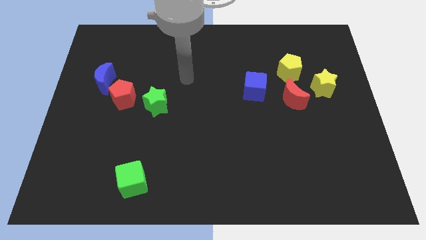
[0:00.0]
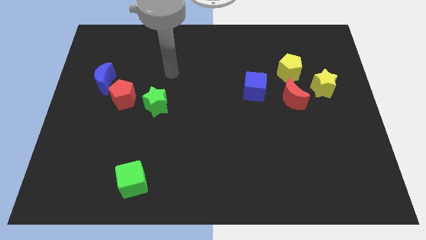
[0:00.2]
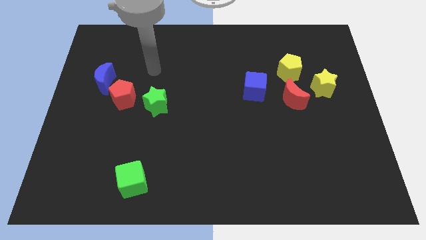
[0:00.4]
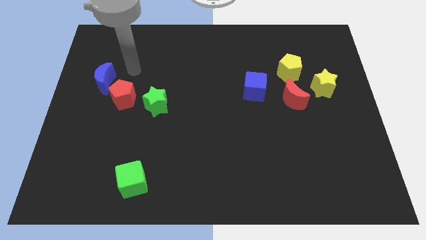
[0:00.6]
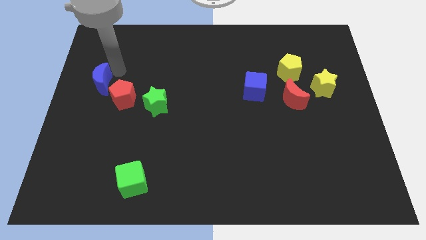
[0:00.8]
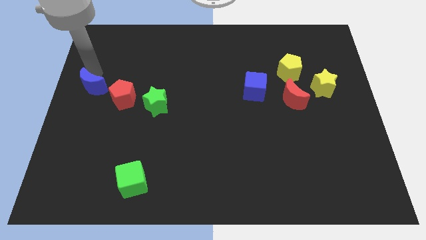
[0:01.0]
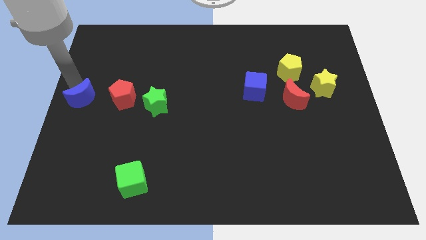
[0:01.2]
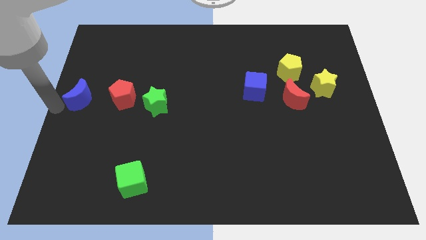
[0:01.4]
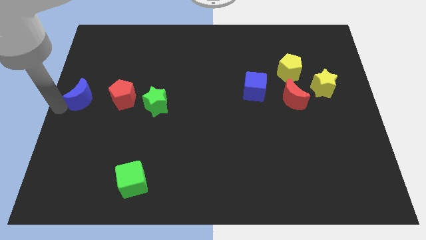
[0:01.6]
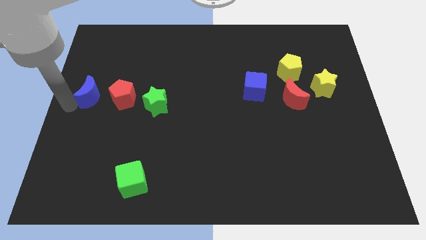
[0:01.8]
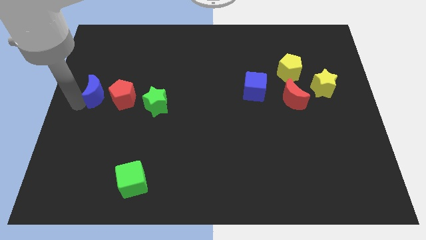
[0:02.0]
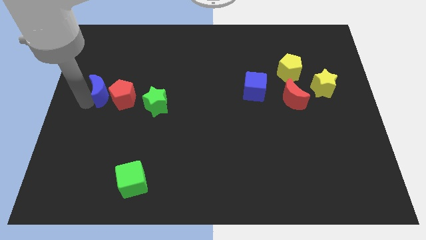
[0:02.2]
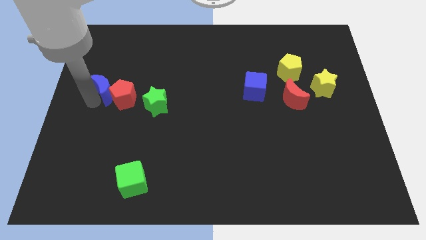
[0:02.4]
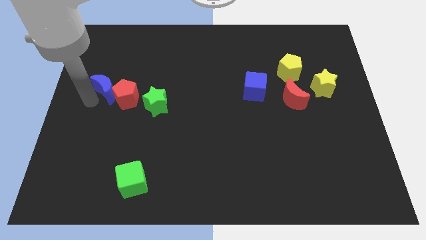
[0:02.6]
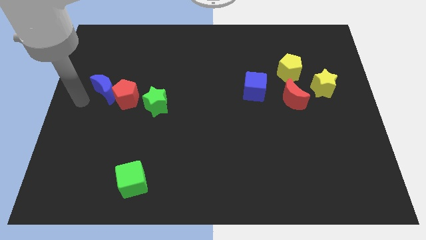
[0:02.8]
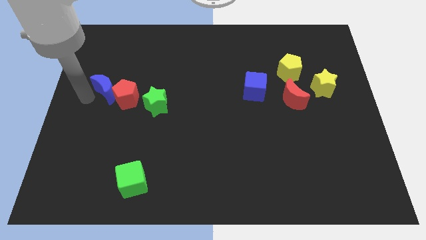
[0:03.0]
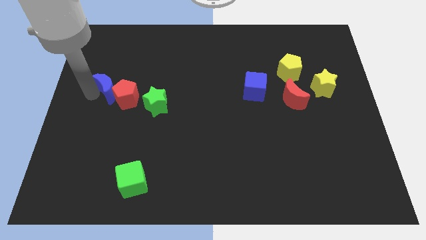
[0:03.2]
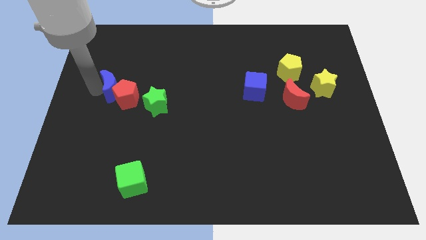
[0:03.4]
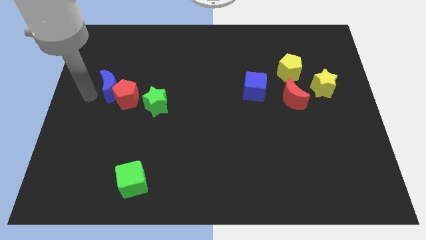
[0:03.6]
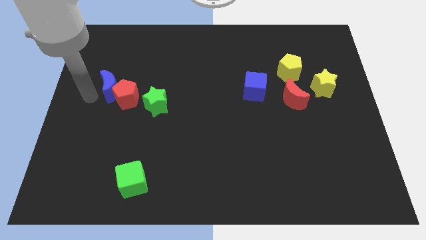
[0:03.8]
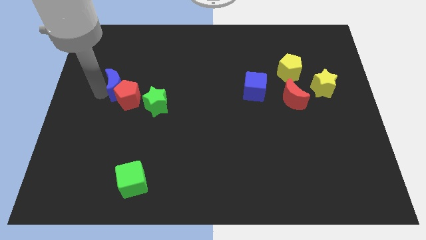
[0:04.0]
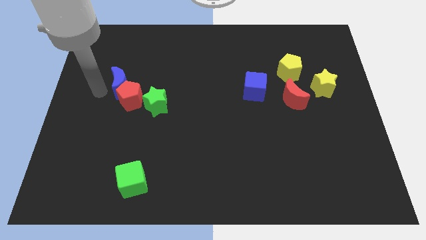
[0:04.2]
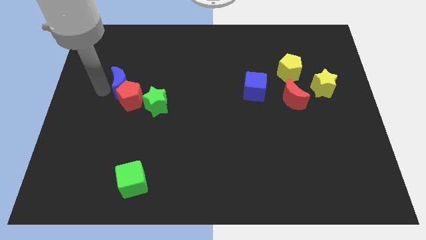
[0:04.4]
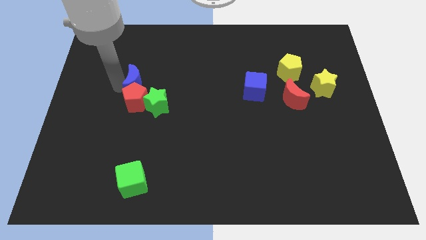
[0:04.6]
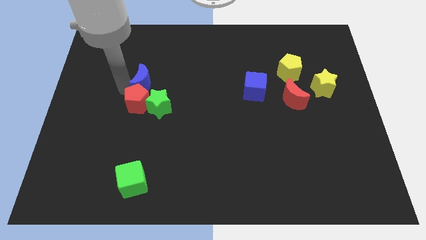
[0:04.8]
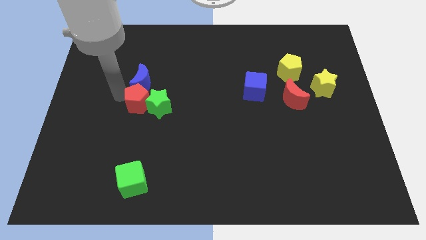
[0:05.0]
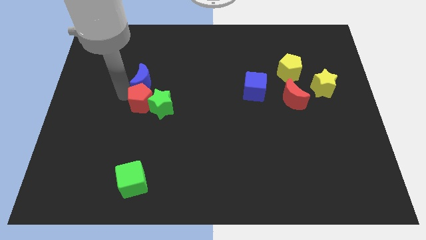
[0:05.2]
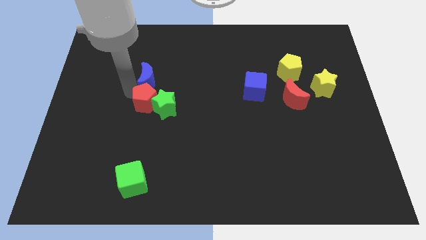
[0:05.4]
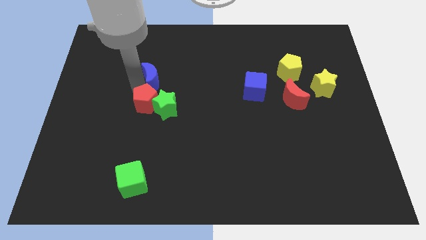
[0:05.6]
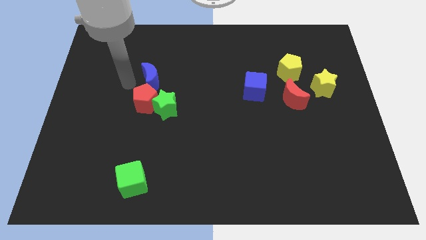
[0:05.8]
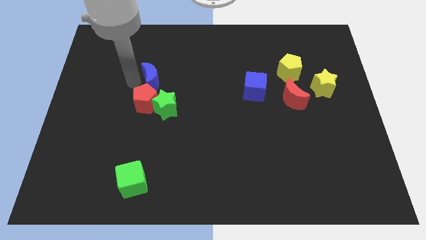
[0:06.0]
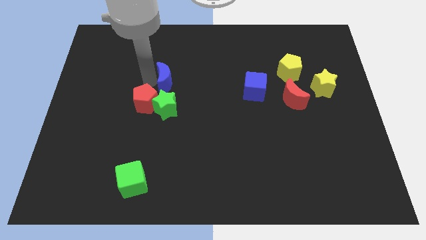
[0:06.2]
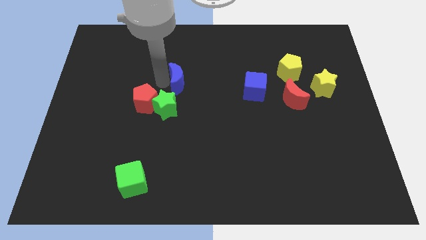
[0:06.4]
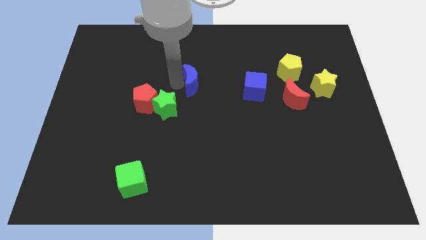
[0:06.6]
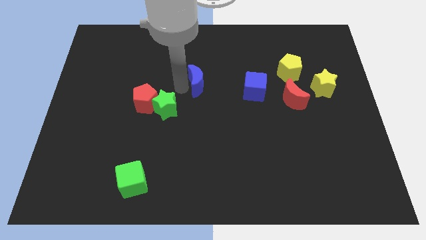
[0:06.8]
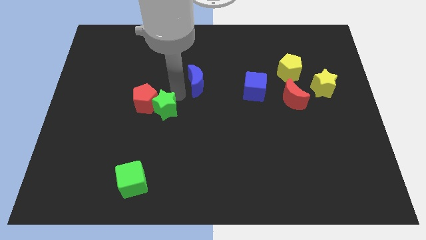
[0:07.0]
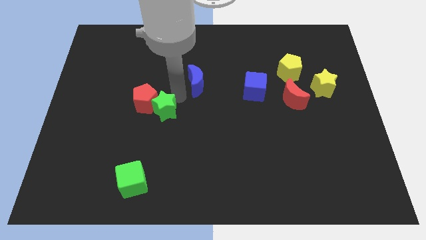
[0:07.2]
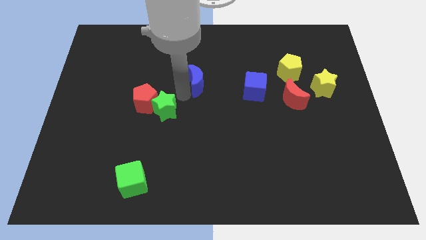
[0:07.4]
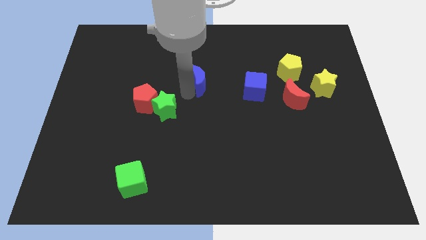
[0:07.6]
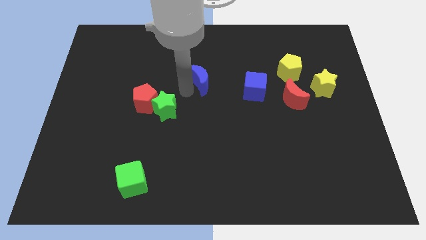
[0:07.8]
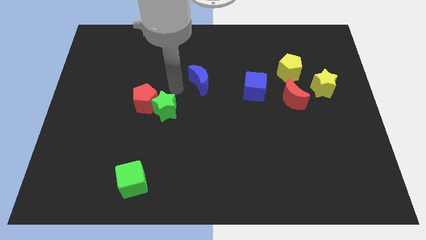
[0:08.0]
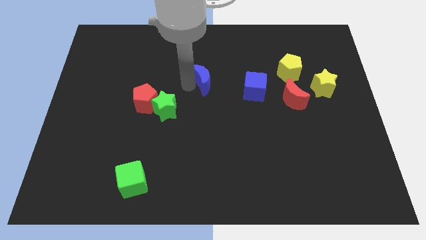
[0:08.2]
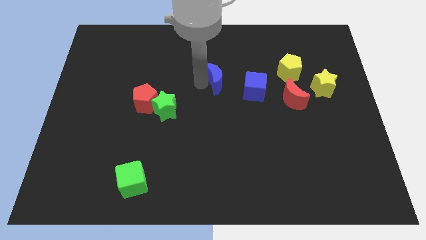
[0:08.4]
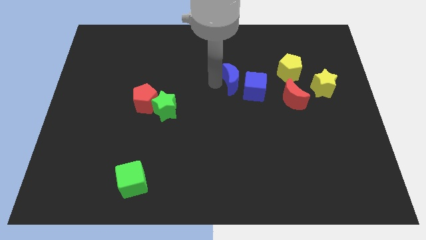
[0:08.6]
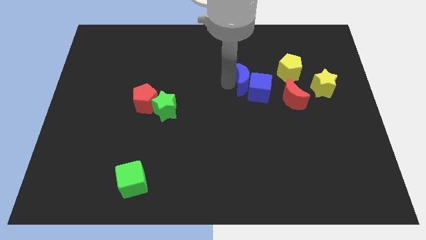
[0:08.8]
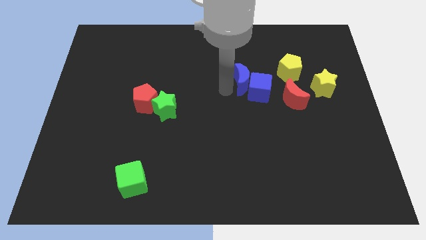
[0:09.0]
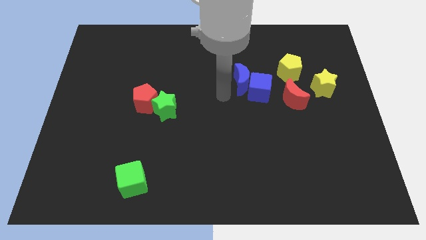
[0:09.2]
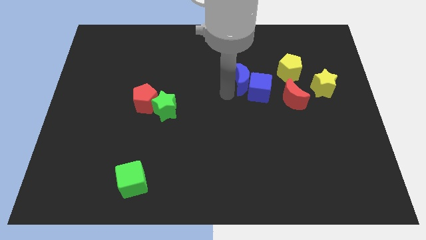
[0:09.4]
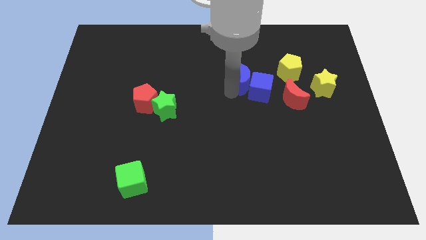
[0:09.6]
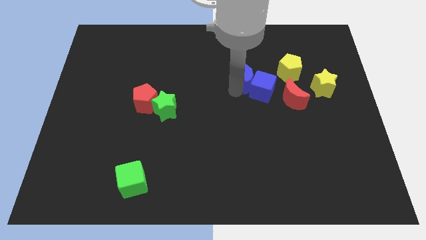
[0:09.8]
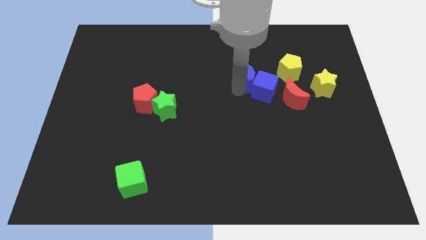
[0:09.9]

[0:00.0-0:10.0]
move the blue moon diagonally up and to the left of the red moon

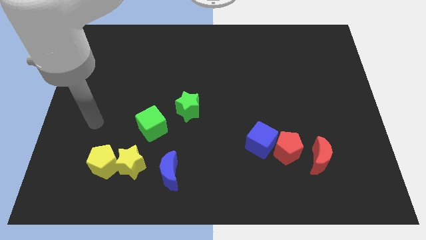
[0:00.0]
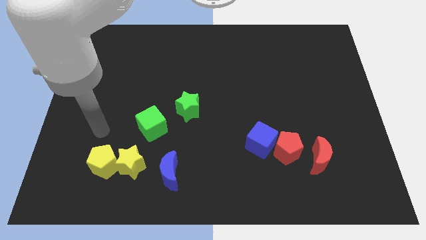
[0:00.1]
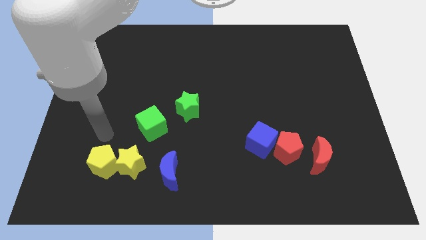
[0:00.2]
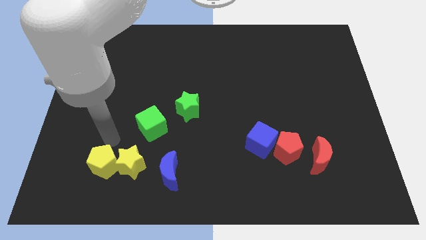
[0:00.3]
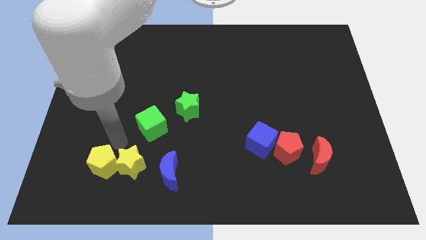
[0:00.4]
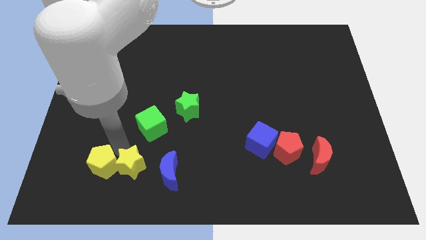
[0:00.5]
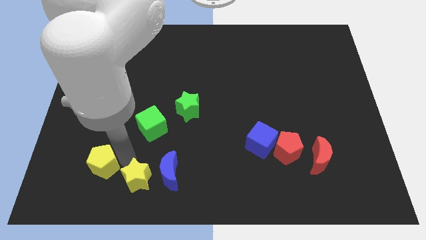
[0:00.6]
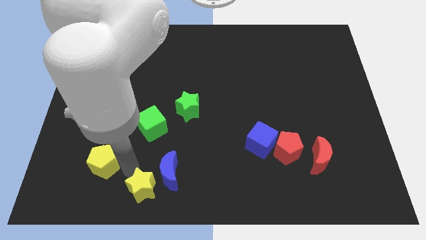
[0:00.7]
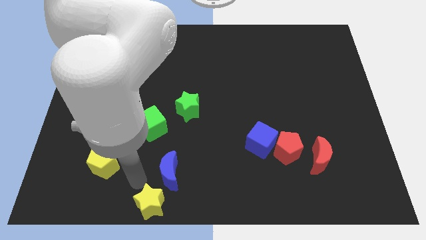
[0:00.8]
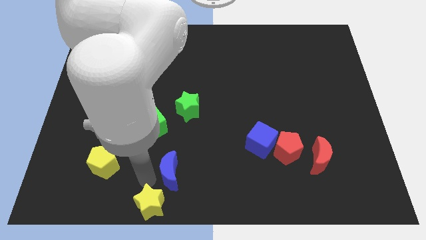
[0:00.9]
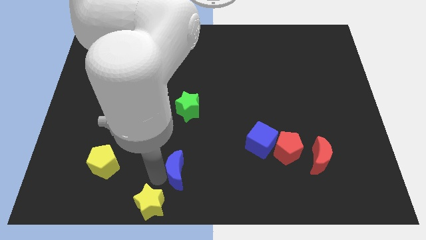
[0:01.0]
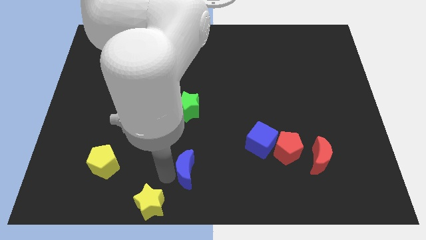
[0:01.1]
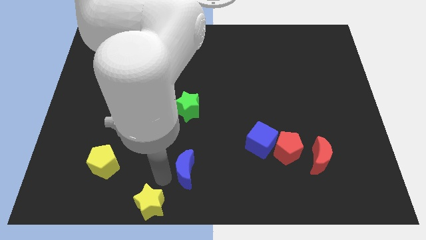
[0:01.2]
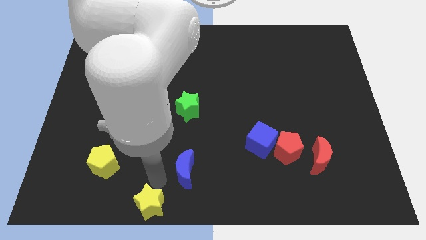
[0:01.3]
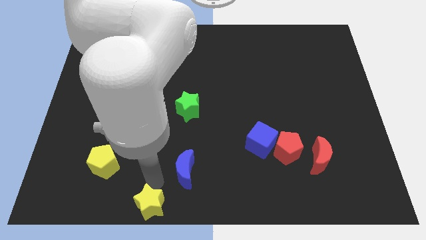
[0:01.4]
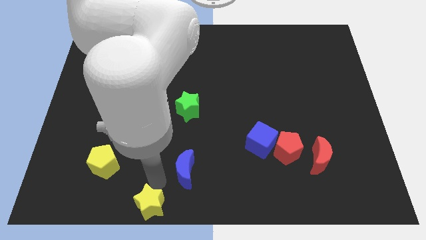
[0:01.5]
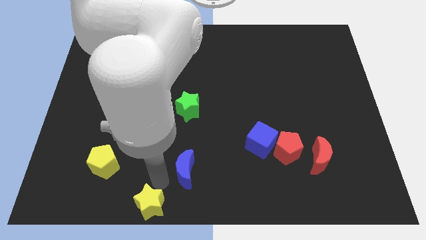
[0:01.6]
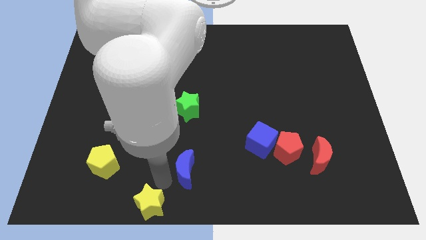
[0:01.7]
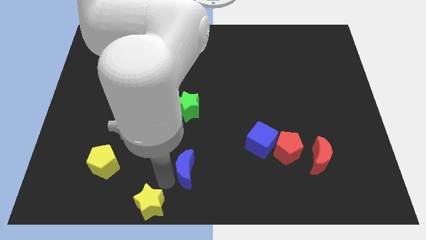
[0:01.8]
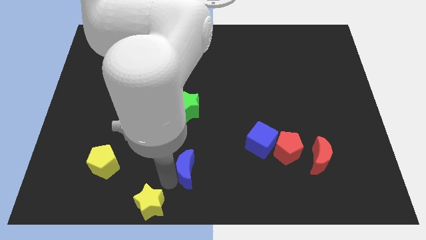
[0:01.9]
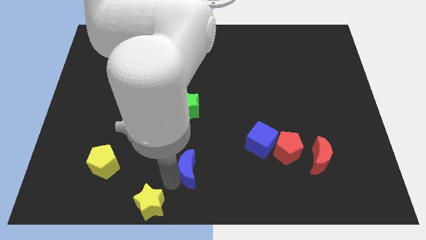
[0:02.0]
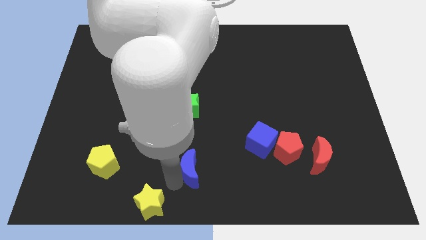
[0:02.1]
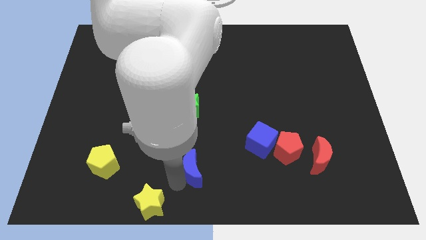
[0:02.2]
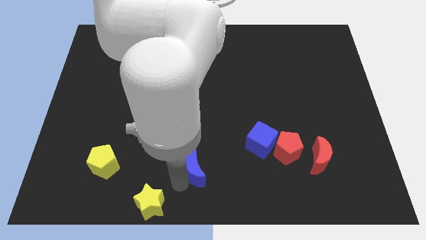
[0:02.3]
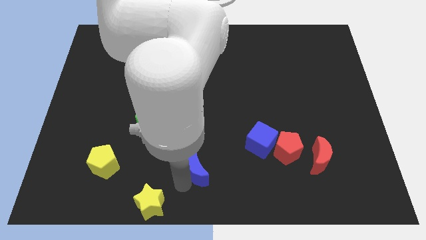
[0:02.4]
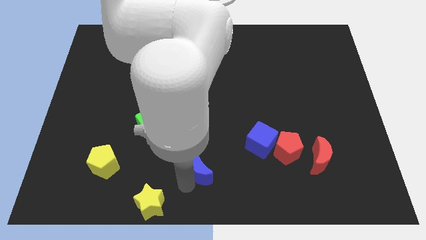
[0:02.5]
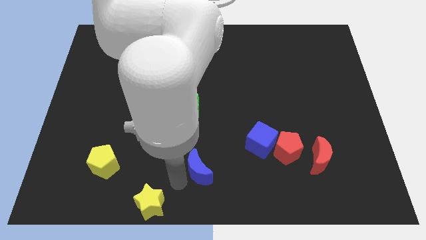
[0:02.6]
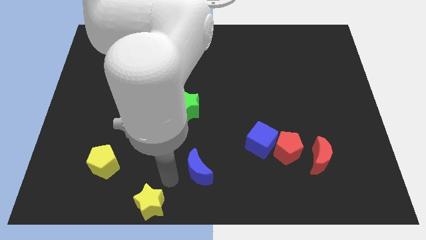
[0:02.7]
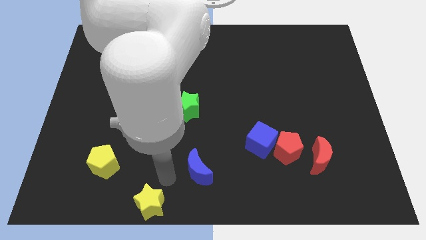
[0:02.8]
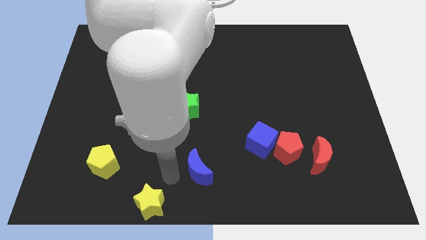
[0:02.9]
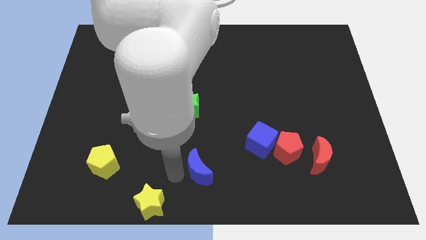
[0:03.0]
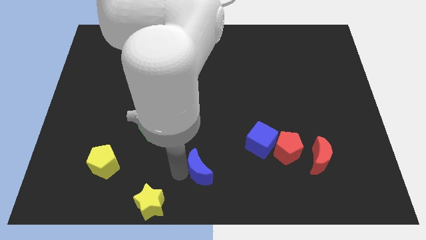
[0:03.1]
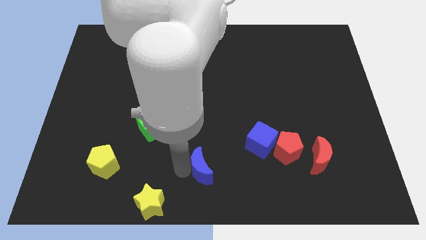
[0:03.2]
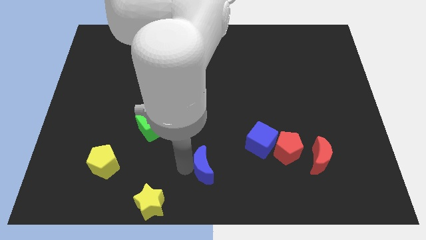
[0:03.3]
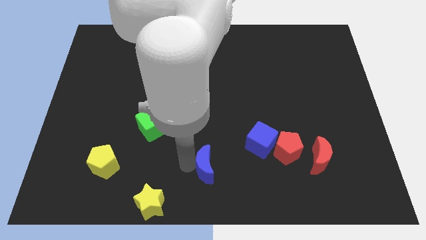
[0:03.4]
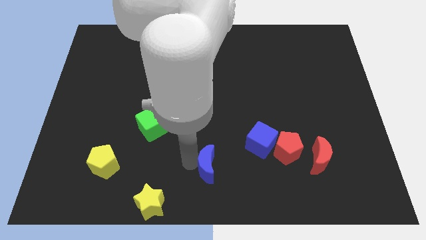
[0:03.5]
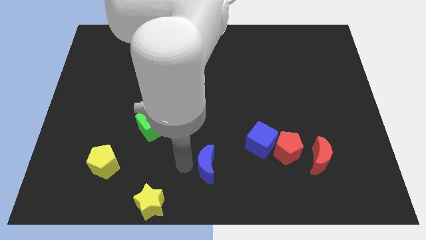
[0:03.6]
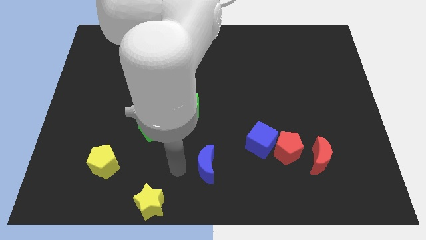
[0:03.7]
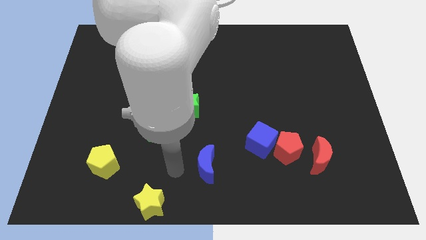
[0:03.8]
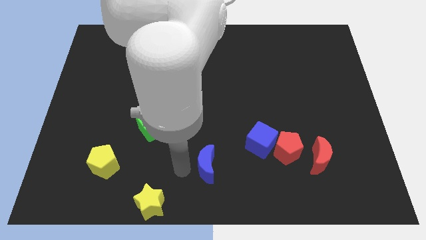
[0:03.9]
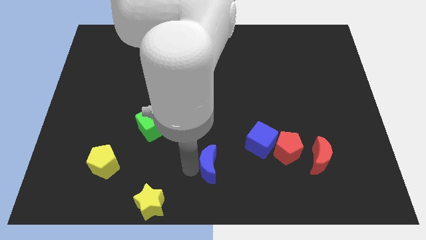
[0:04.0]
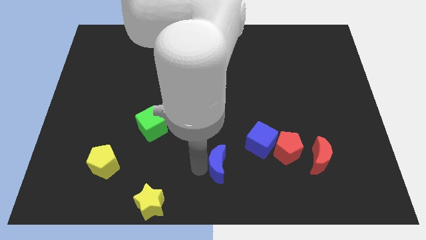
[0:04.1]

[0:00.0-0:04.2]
move the blue moon to the bottom left side of the blue cube
